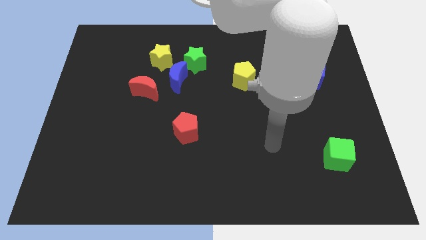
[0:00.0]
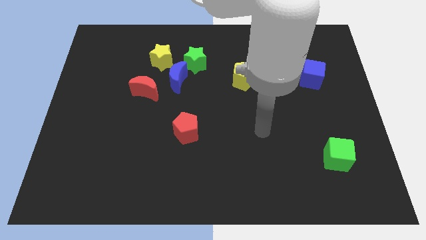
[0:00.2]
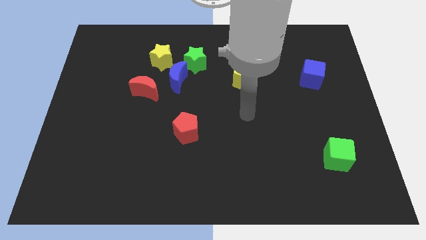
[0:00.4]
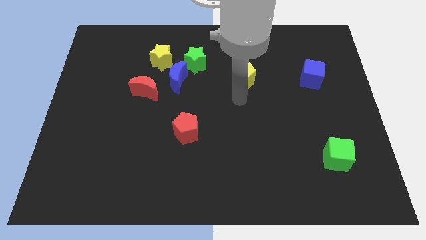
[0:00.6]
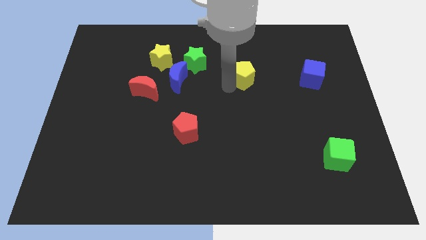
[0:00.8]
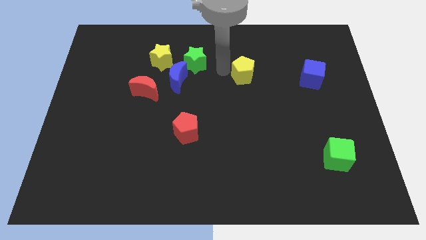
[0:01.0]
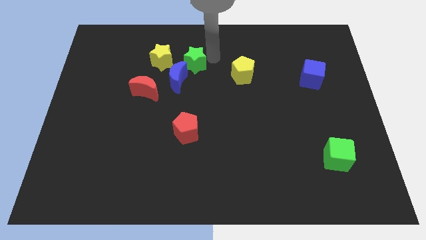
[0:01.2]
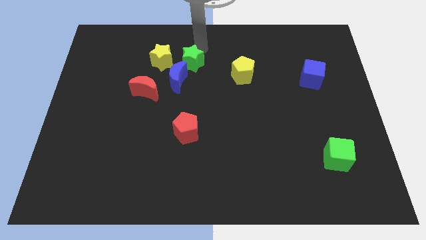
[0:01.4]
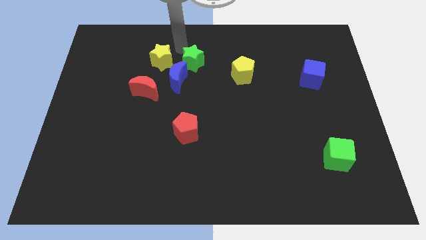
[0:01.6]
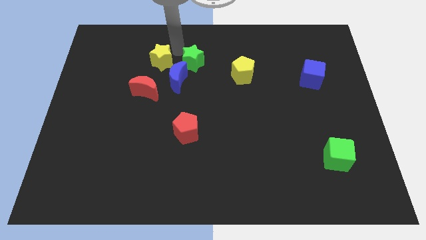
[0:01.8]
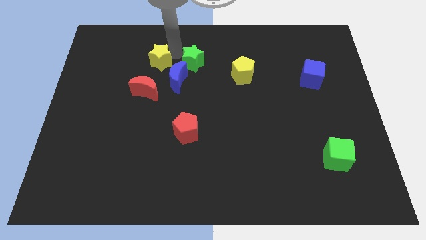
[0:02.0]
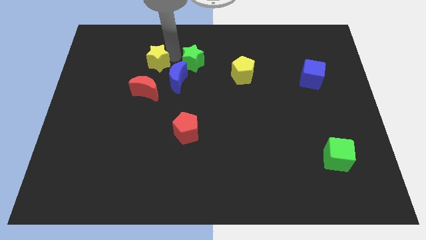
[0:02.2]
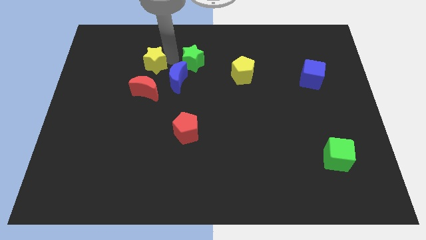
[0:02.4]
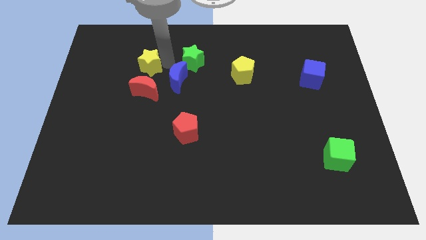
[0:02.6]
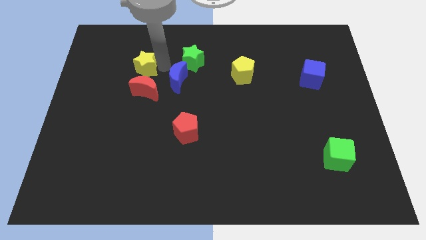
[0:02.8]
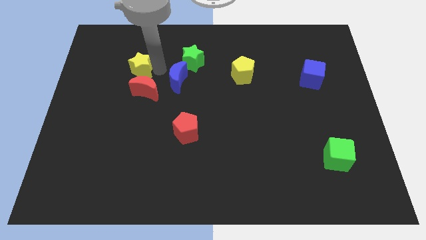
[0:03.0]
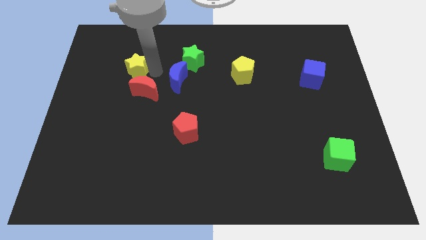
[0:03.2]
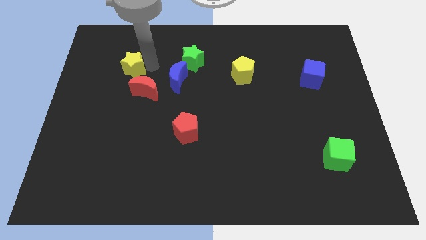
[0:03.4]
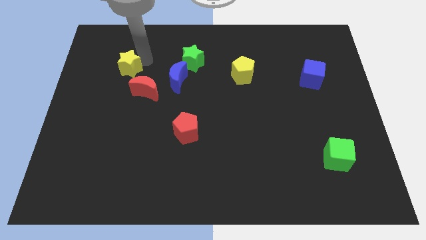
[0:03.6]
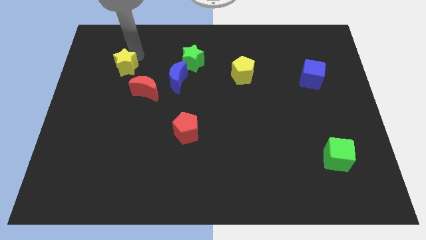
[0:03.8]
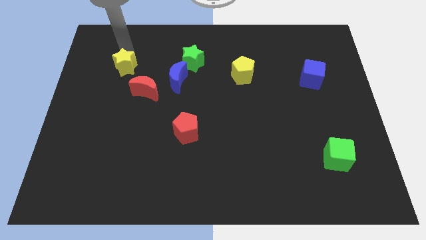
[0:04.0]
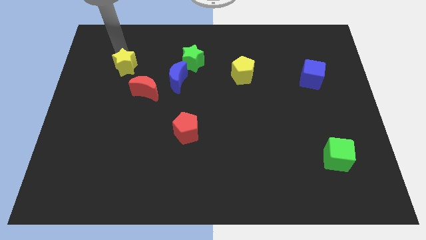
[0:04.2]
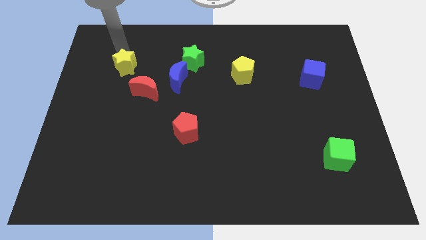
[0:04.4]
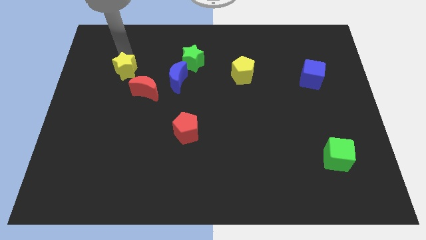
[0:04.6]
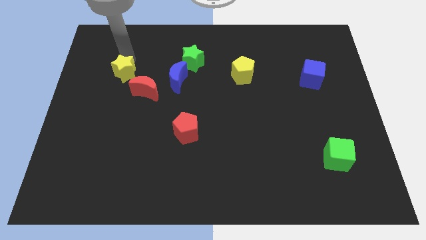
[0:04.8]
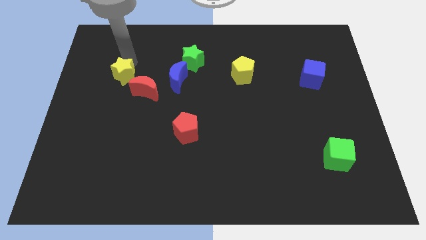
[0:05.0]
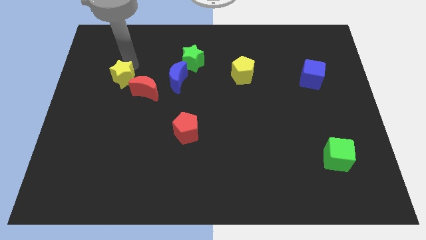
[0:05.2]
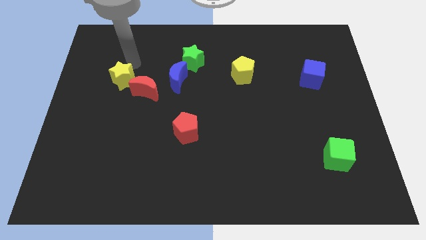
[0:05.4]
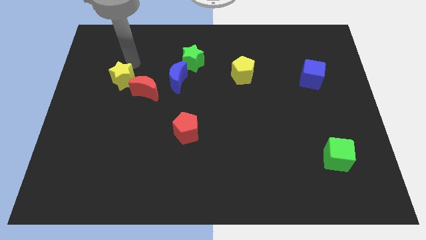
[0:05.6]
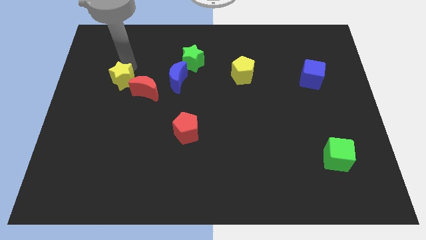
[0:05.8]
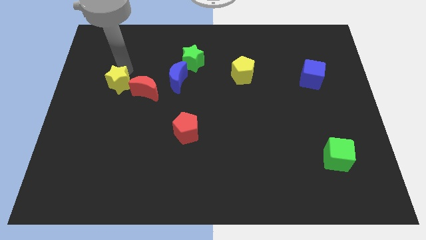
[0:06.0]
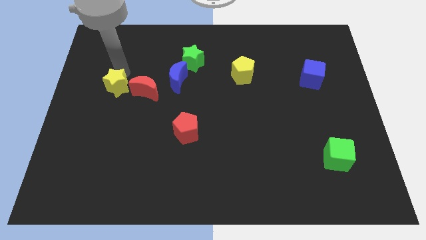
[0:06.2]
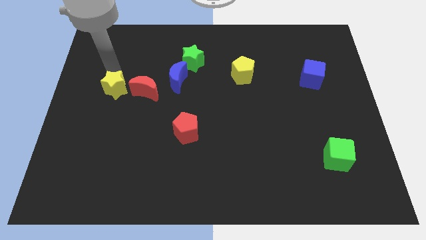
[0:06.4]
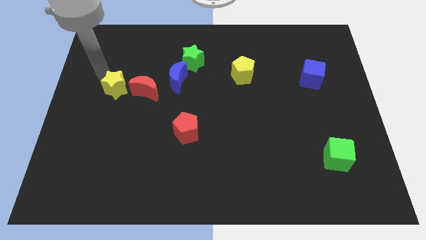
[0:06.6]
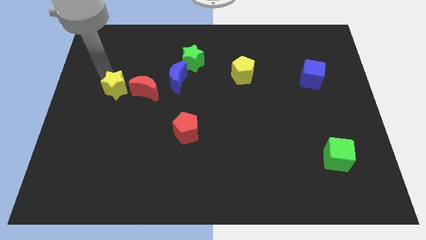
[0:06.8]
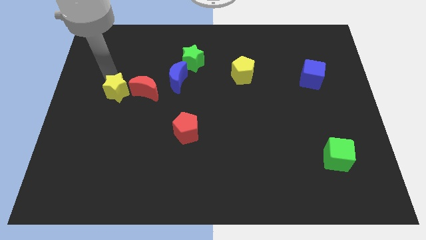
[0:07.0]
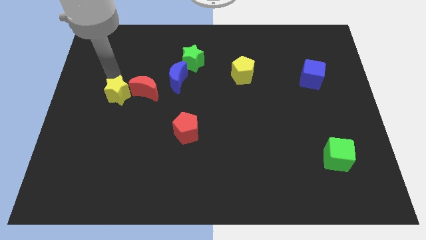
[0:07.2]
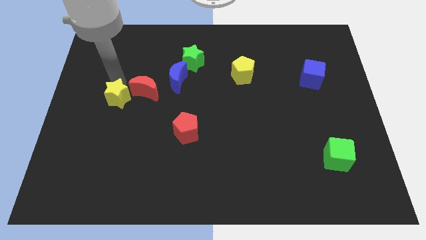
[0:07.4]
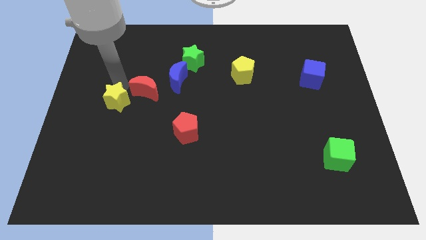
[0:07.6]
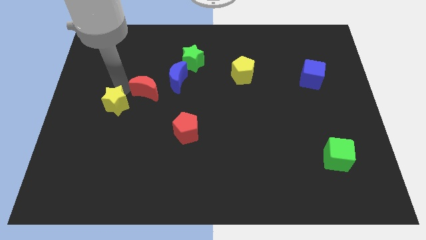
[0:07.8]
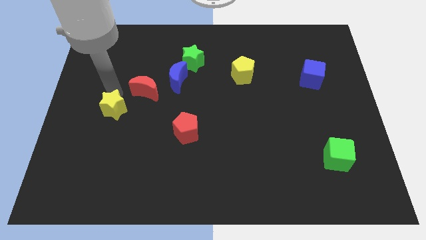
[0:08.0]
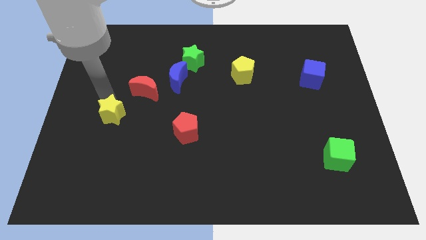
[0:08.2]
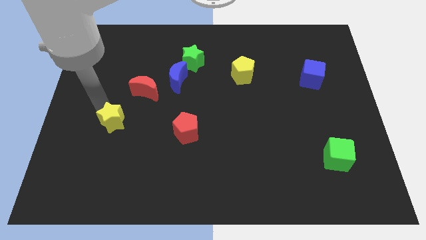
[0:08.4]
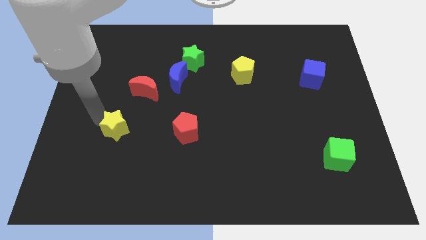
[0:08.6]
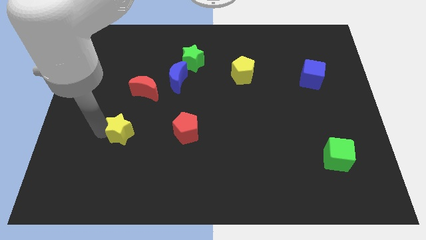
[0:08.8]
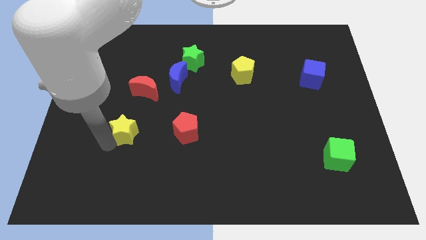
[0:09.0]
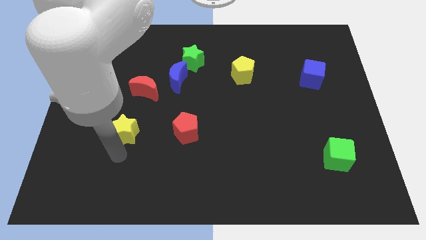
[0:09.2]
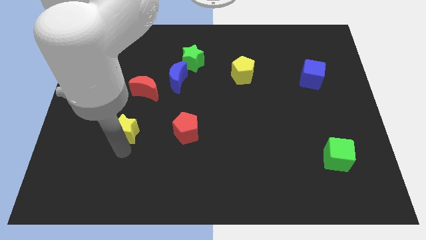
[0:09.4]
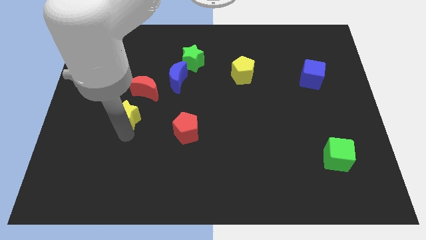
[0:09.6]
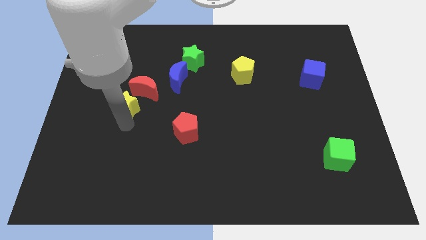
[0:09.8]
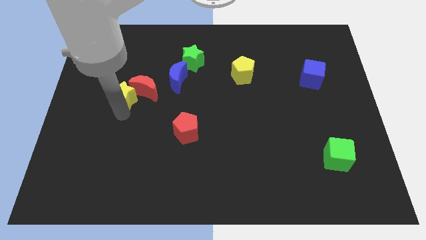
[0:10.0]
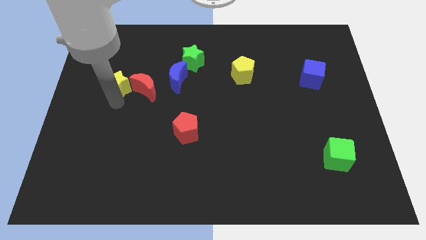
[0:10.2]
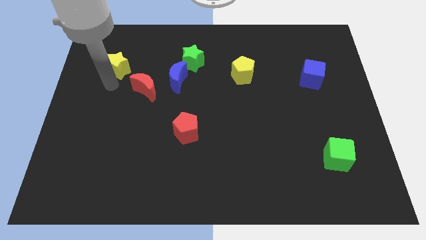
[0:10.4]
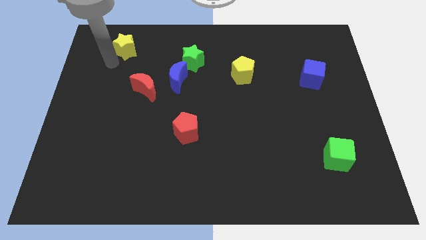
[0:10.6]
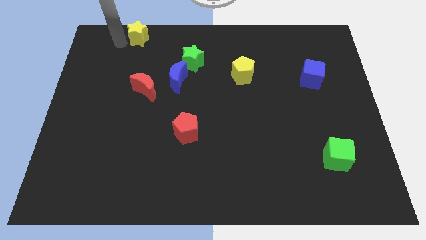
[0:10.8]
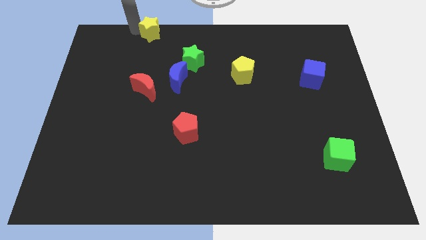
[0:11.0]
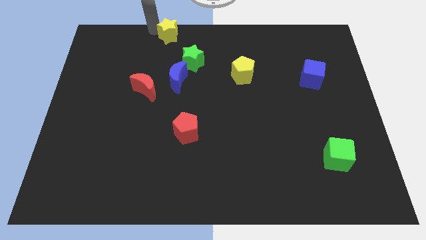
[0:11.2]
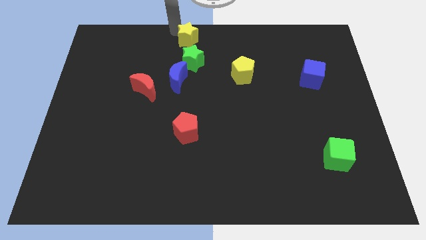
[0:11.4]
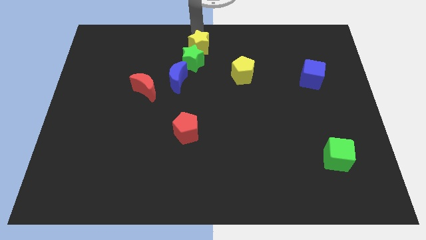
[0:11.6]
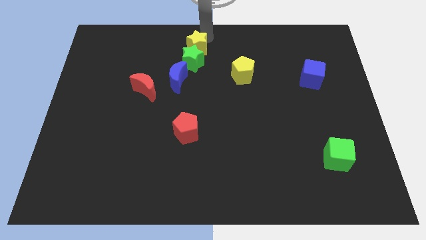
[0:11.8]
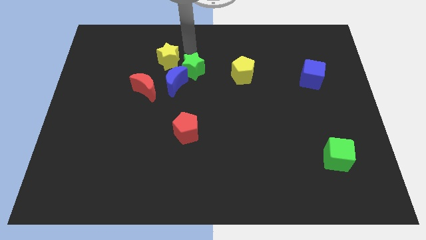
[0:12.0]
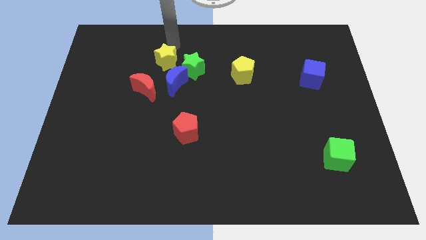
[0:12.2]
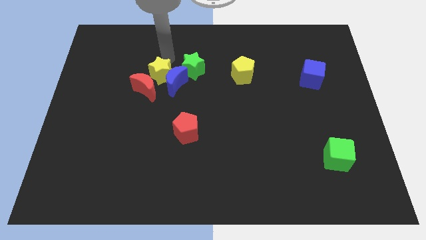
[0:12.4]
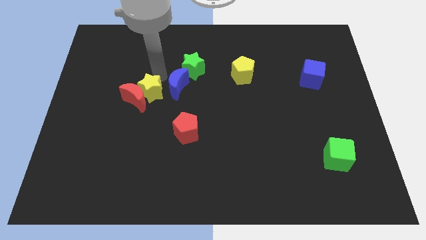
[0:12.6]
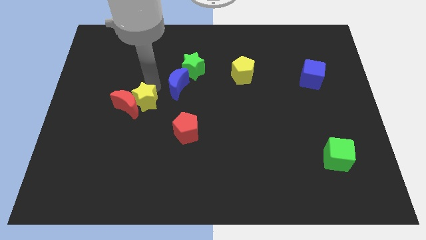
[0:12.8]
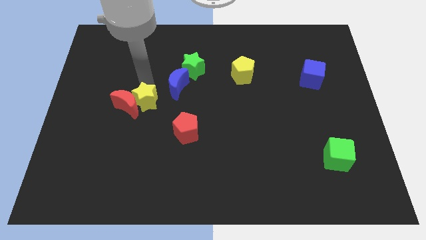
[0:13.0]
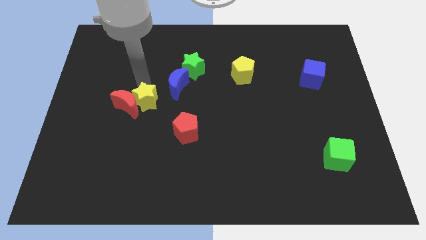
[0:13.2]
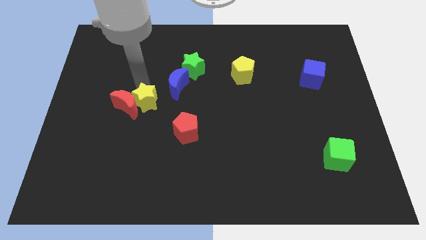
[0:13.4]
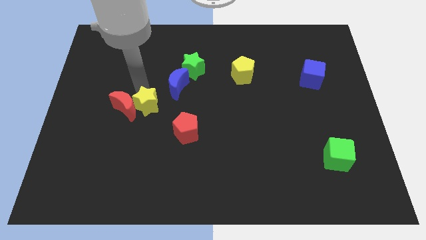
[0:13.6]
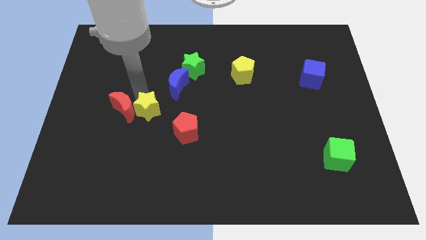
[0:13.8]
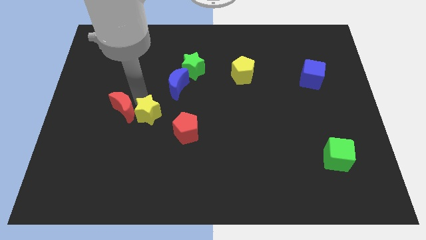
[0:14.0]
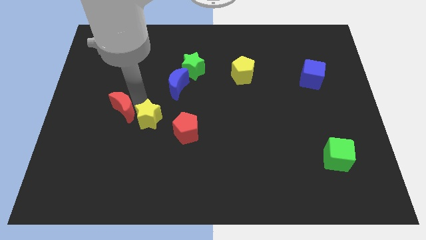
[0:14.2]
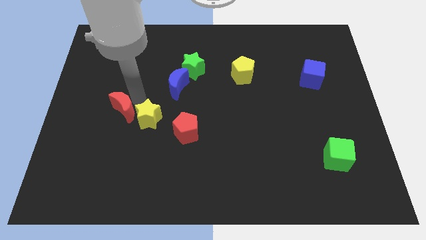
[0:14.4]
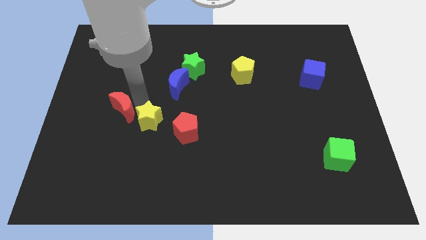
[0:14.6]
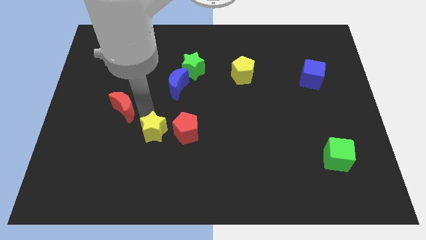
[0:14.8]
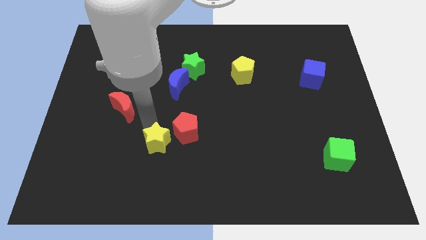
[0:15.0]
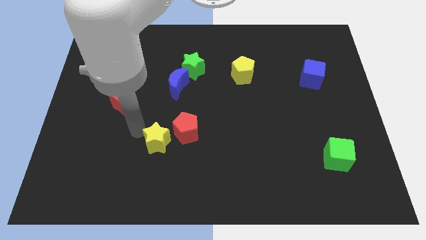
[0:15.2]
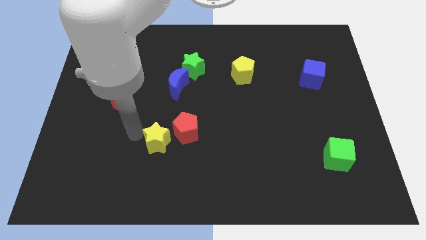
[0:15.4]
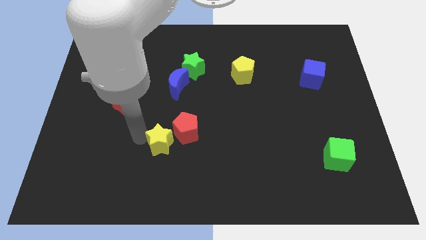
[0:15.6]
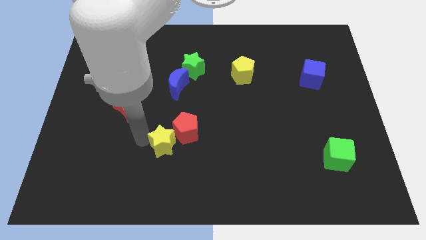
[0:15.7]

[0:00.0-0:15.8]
put the yellow star to the bottom of the red pentagon

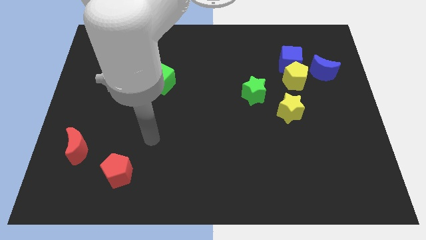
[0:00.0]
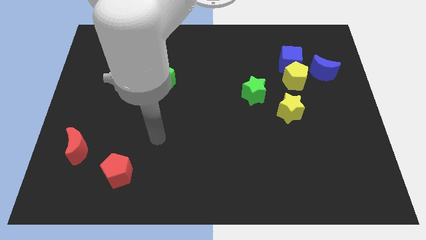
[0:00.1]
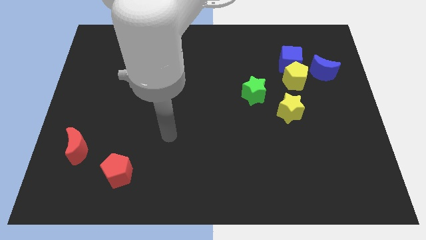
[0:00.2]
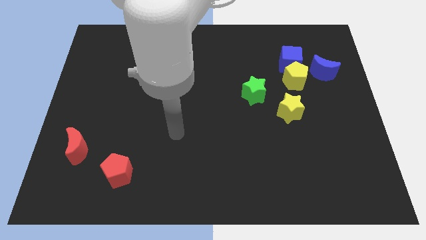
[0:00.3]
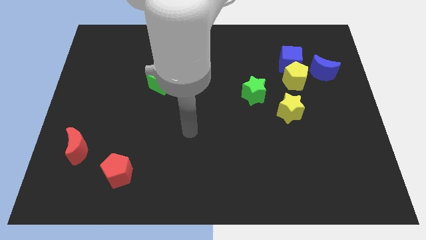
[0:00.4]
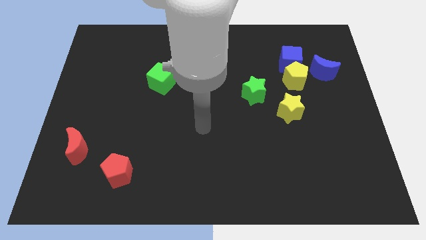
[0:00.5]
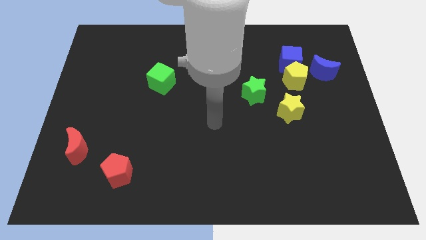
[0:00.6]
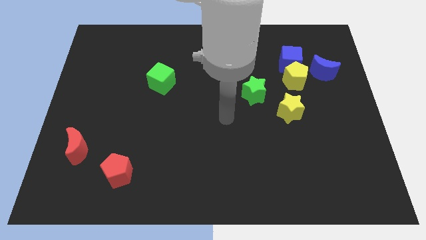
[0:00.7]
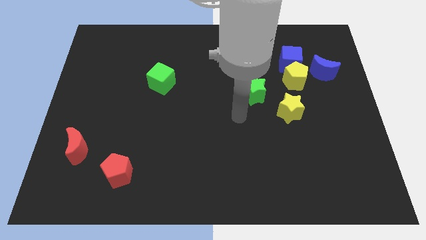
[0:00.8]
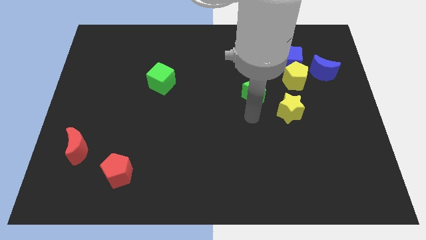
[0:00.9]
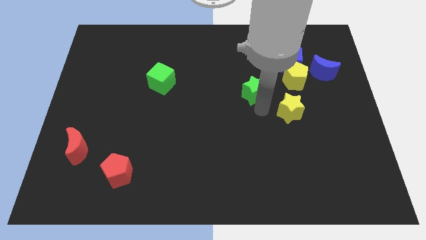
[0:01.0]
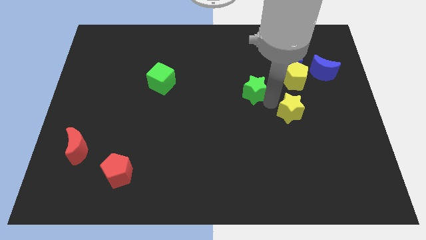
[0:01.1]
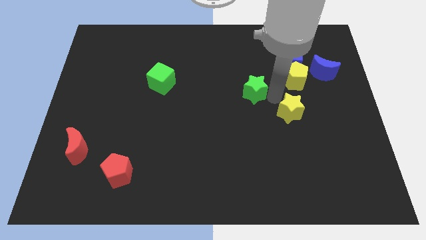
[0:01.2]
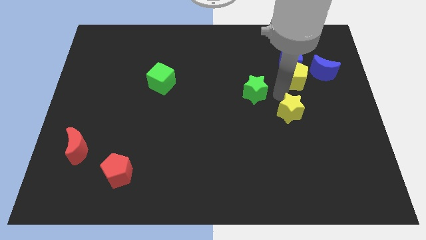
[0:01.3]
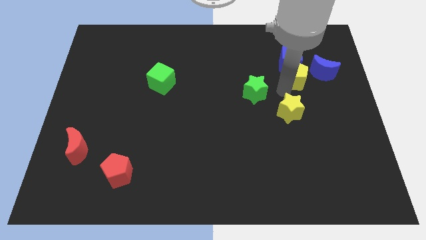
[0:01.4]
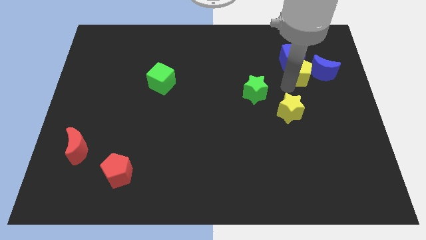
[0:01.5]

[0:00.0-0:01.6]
push the yellow pentagon diagonally up and to the left of the blue moon
